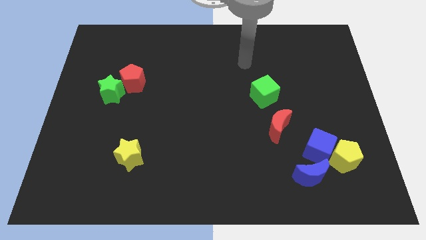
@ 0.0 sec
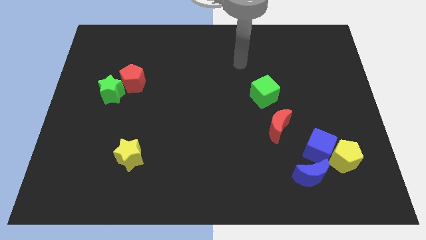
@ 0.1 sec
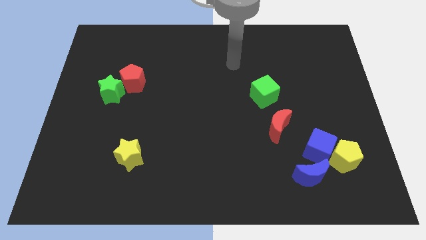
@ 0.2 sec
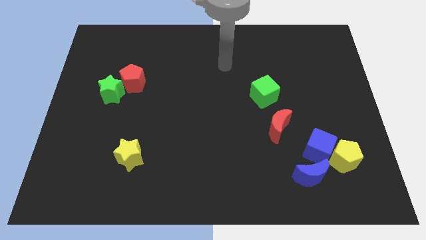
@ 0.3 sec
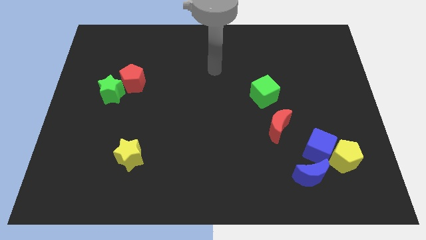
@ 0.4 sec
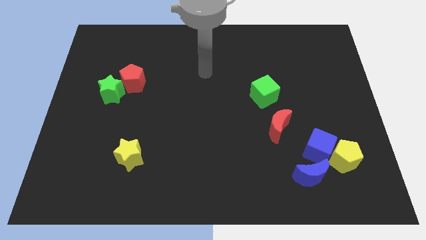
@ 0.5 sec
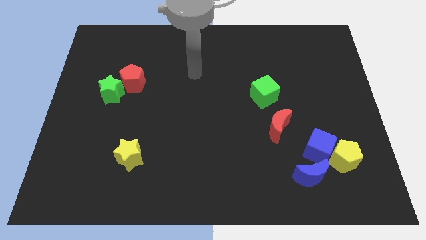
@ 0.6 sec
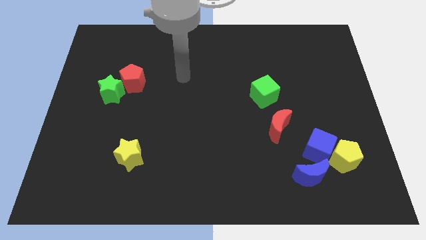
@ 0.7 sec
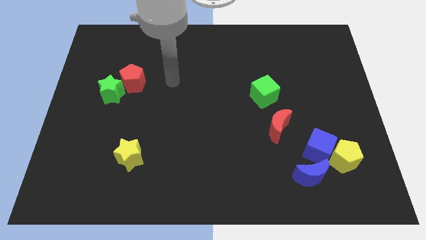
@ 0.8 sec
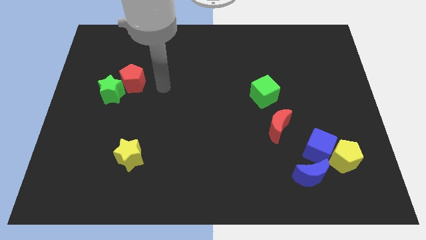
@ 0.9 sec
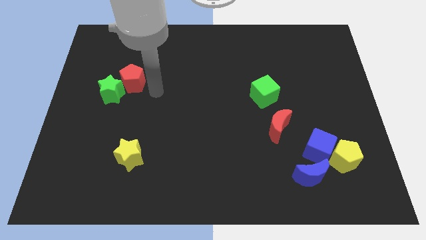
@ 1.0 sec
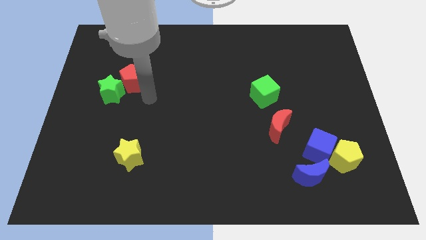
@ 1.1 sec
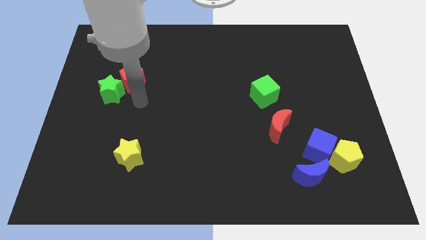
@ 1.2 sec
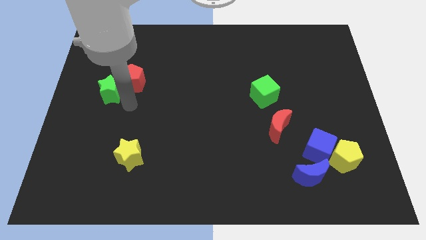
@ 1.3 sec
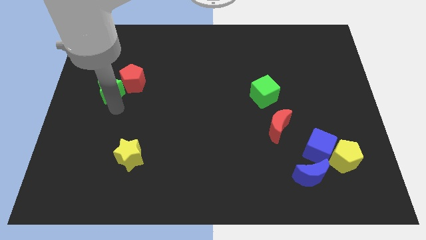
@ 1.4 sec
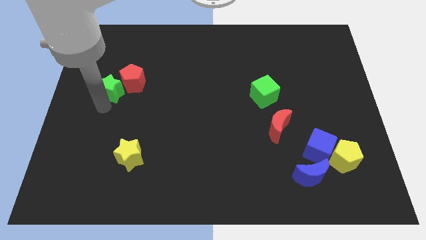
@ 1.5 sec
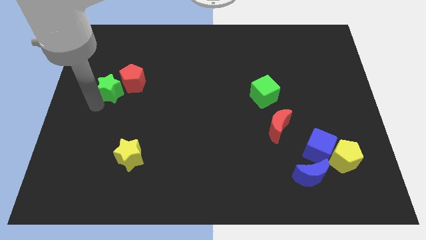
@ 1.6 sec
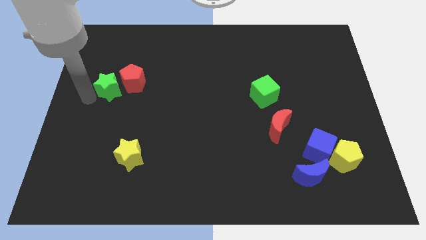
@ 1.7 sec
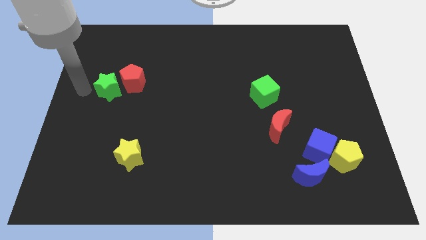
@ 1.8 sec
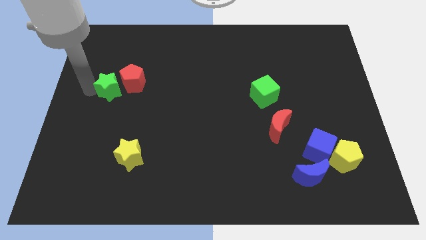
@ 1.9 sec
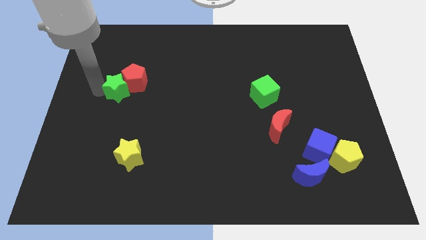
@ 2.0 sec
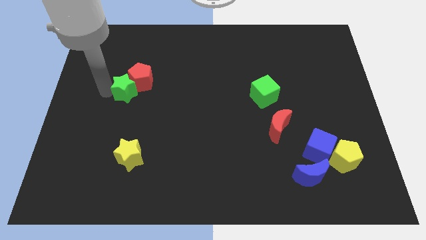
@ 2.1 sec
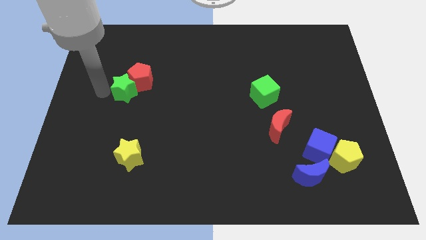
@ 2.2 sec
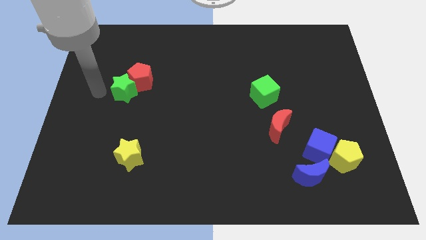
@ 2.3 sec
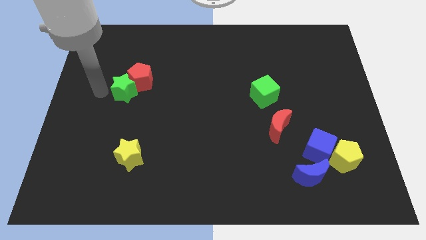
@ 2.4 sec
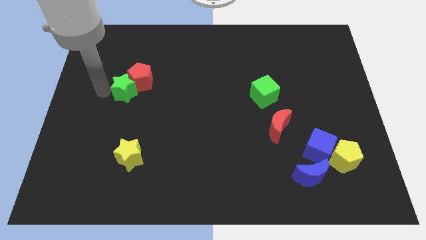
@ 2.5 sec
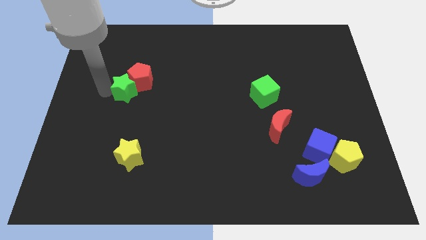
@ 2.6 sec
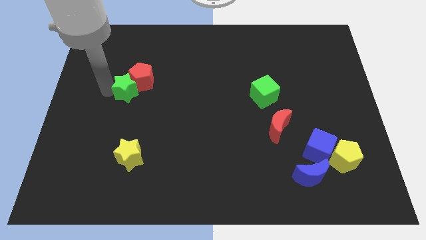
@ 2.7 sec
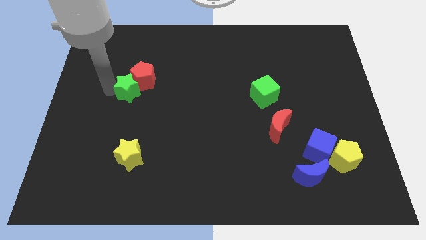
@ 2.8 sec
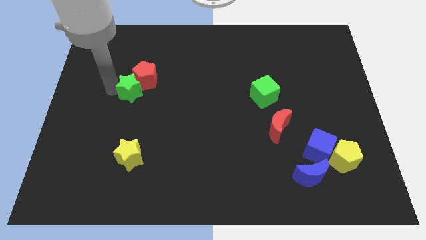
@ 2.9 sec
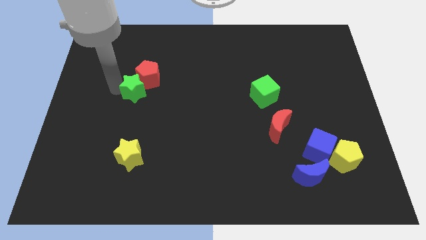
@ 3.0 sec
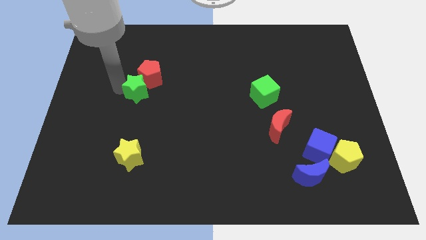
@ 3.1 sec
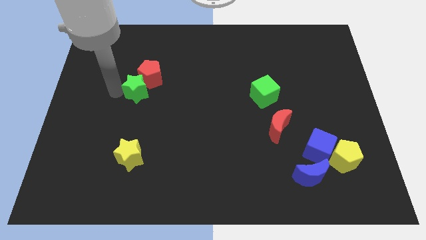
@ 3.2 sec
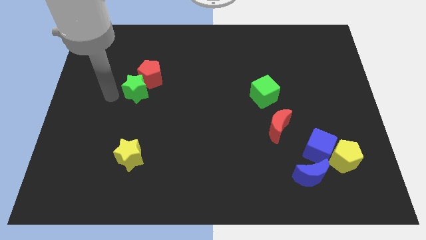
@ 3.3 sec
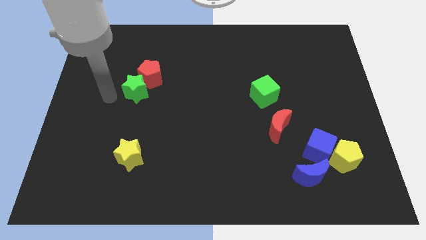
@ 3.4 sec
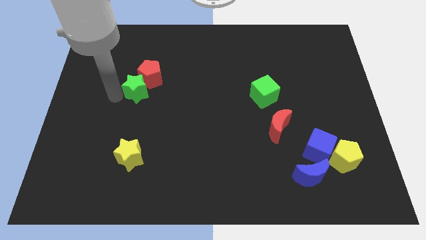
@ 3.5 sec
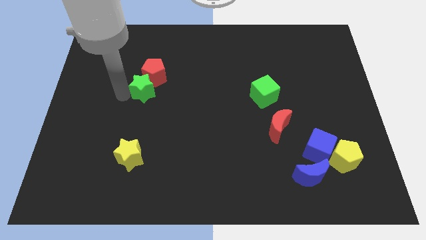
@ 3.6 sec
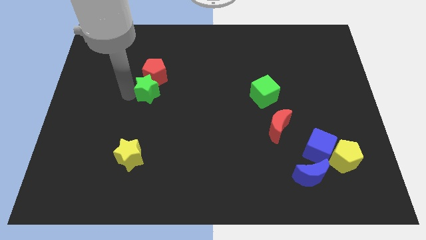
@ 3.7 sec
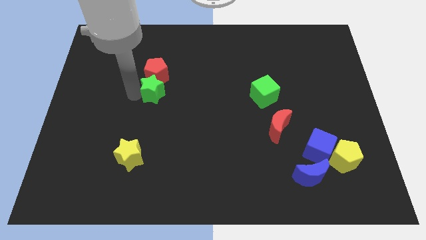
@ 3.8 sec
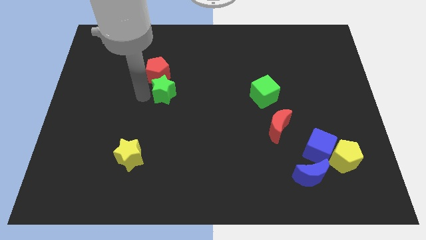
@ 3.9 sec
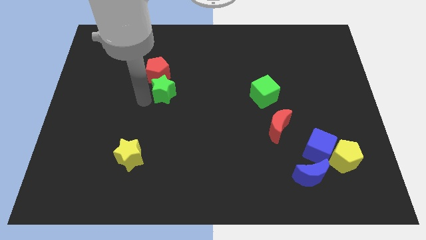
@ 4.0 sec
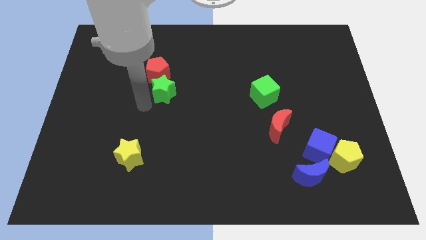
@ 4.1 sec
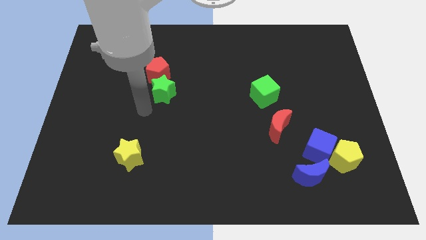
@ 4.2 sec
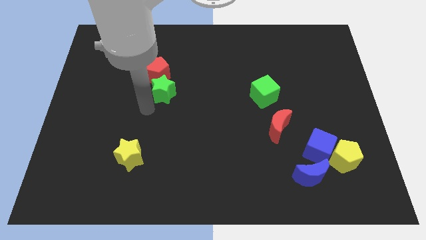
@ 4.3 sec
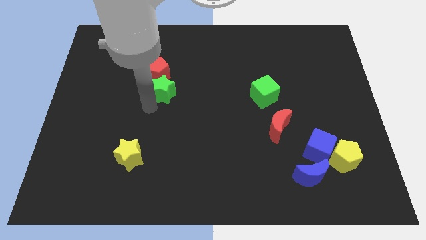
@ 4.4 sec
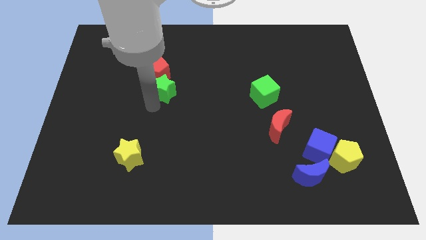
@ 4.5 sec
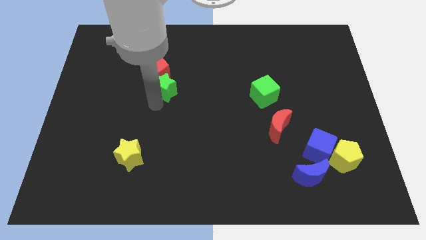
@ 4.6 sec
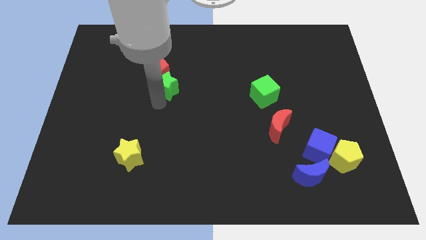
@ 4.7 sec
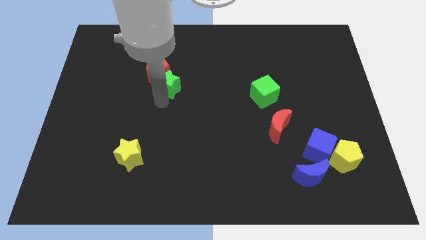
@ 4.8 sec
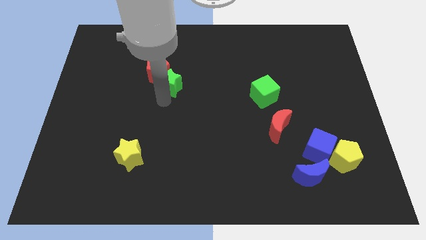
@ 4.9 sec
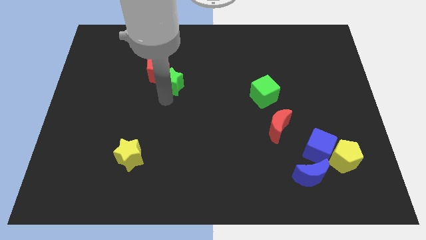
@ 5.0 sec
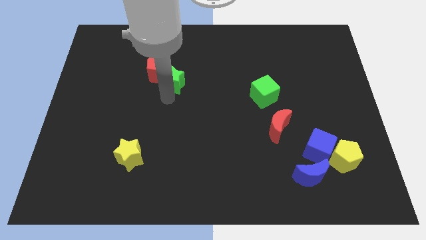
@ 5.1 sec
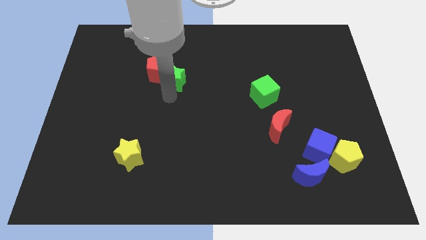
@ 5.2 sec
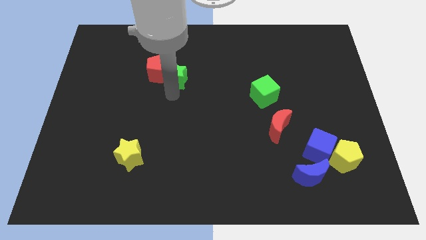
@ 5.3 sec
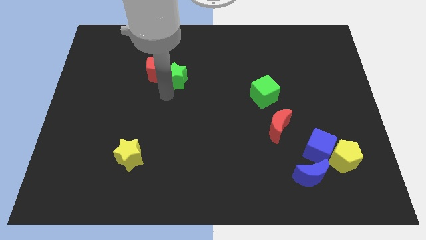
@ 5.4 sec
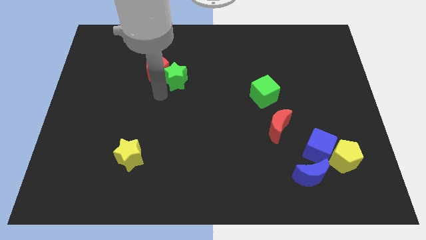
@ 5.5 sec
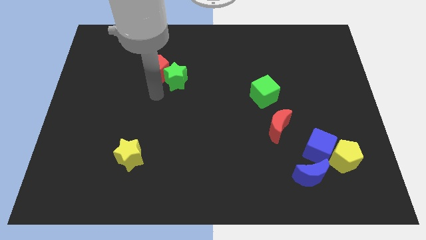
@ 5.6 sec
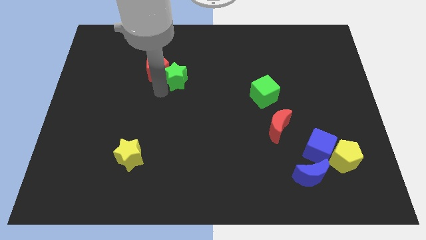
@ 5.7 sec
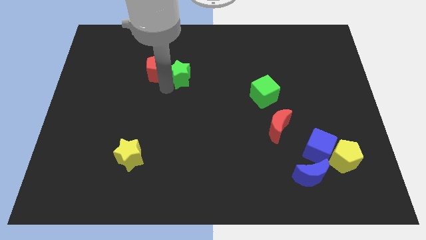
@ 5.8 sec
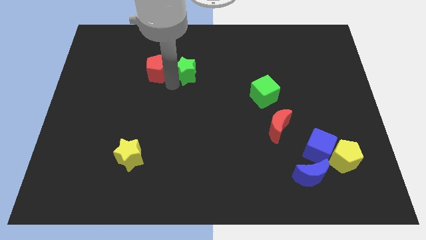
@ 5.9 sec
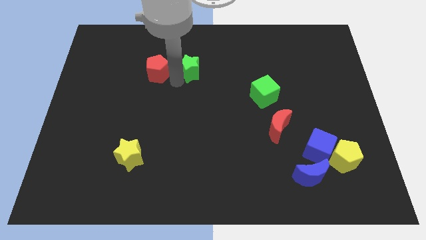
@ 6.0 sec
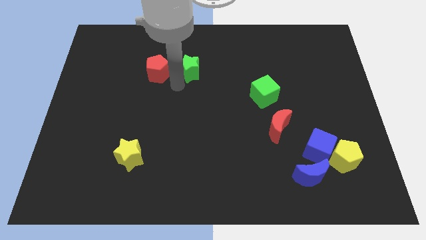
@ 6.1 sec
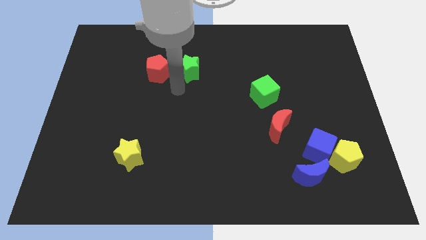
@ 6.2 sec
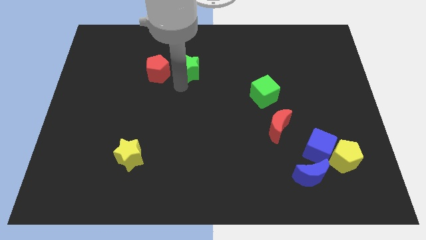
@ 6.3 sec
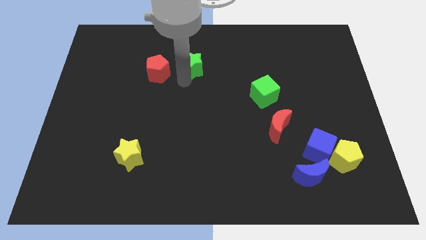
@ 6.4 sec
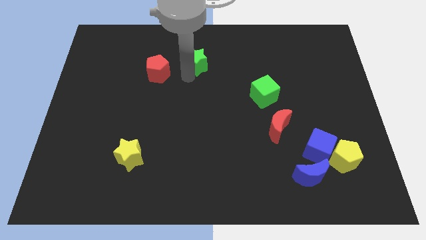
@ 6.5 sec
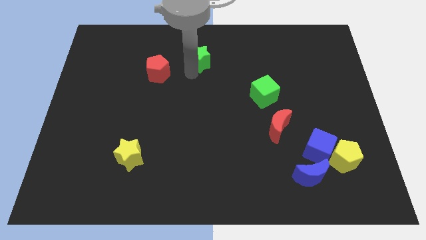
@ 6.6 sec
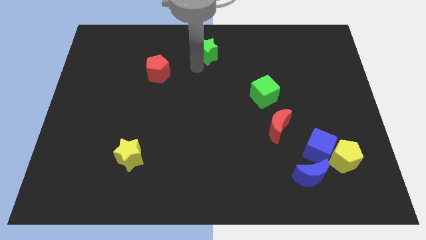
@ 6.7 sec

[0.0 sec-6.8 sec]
put the green star to the top
